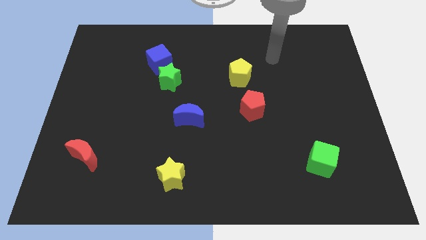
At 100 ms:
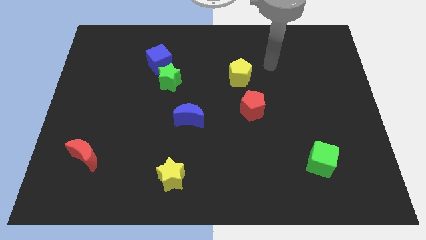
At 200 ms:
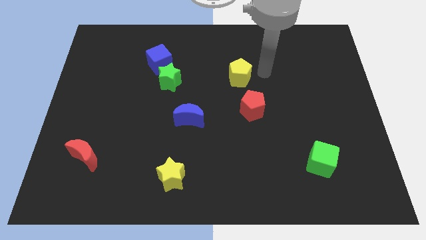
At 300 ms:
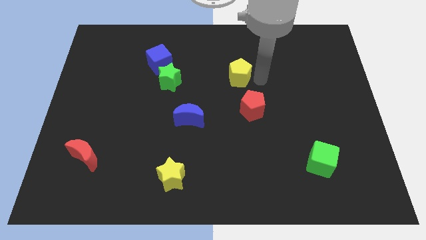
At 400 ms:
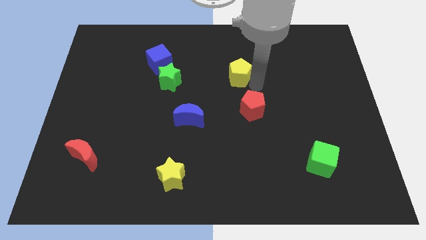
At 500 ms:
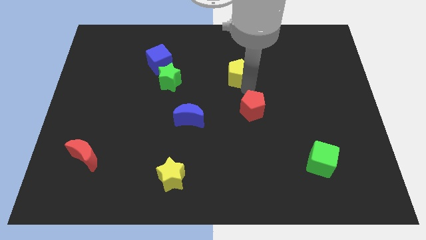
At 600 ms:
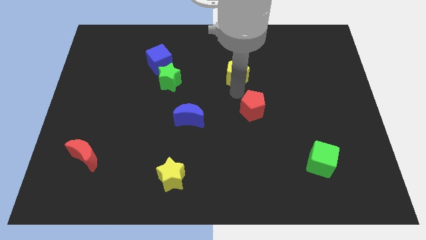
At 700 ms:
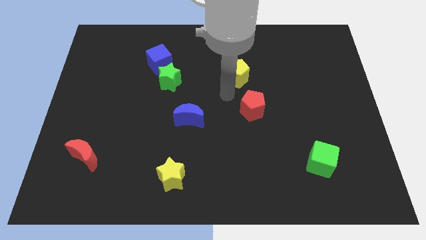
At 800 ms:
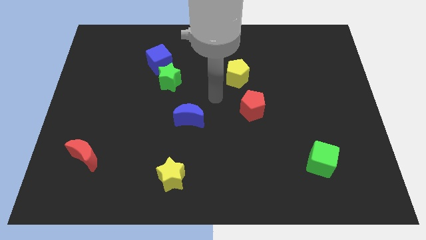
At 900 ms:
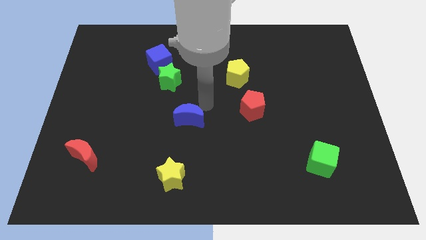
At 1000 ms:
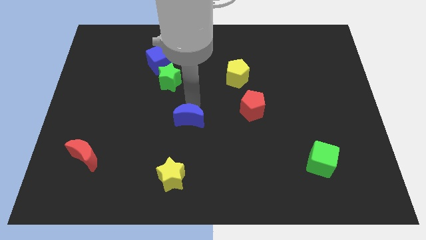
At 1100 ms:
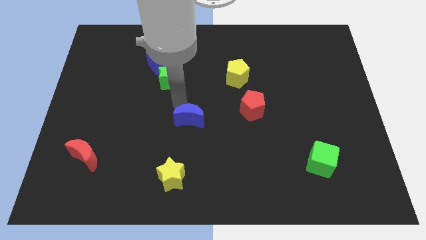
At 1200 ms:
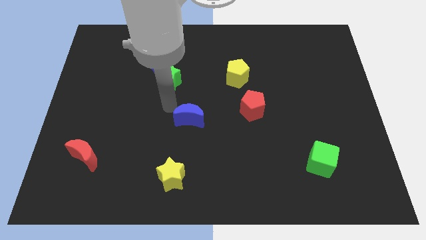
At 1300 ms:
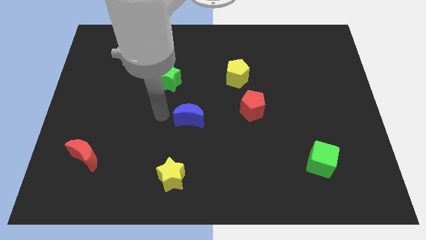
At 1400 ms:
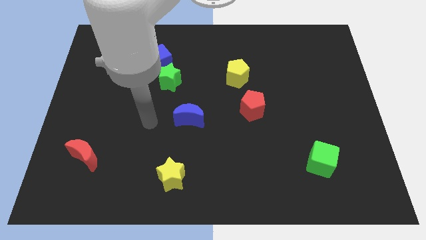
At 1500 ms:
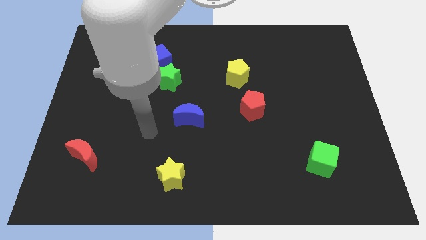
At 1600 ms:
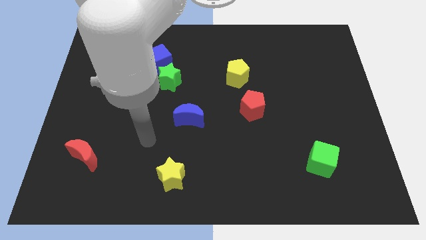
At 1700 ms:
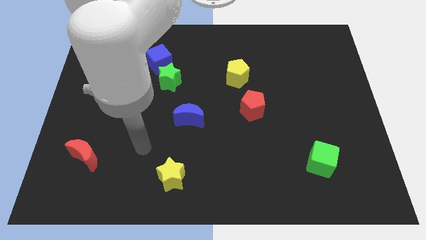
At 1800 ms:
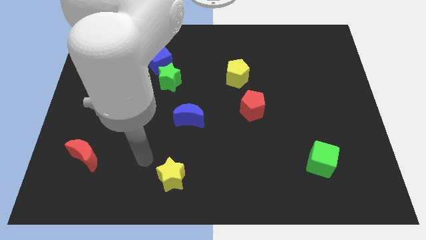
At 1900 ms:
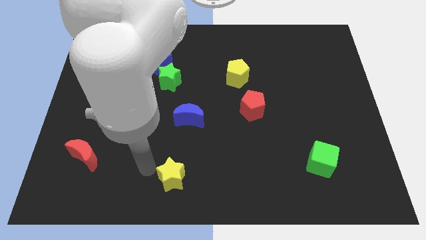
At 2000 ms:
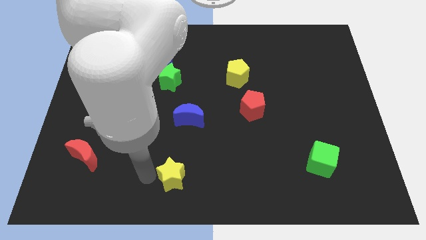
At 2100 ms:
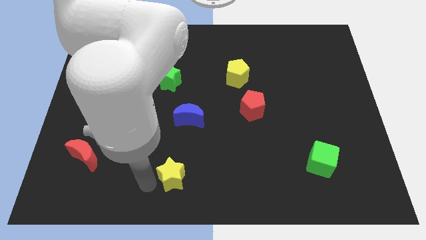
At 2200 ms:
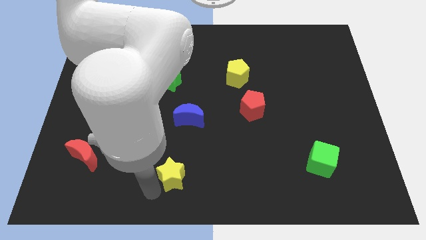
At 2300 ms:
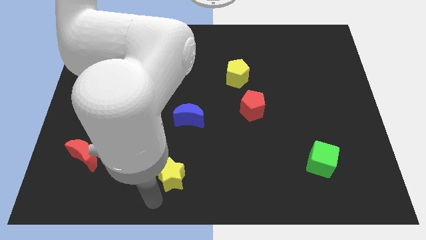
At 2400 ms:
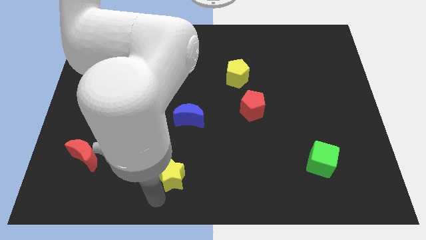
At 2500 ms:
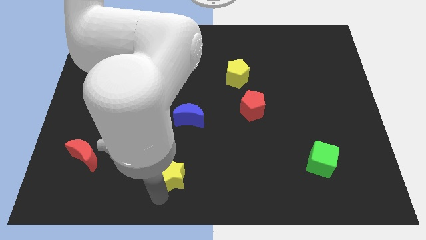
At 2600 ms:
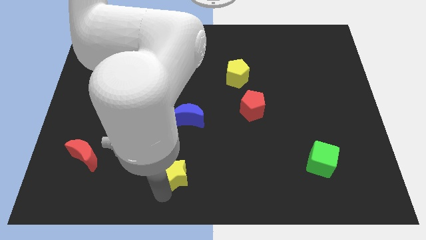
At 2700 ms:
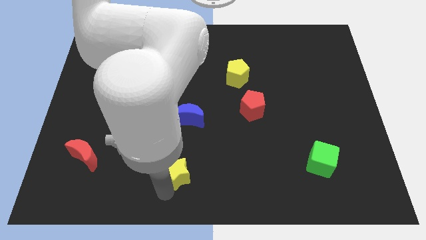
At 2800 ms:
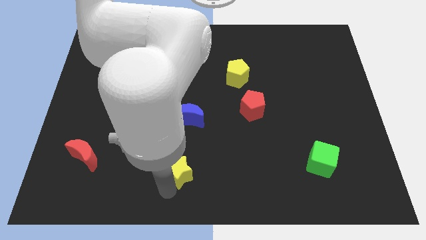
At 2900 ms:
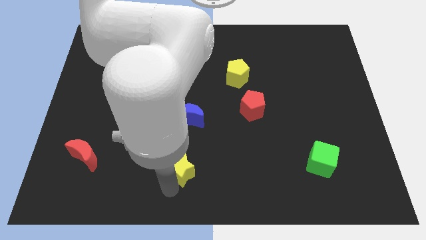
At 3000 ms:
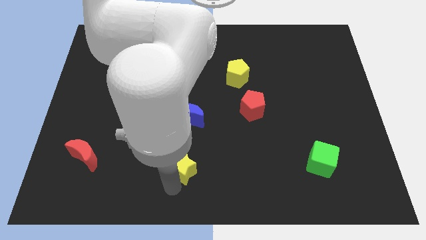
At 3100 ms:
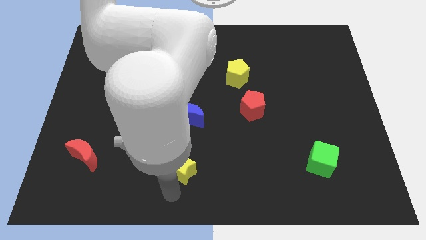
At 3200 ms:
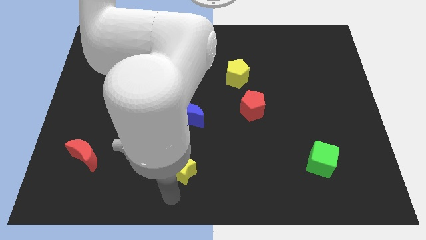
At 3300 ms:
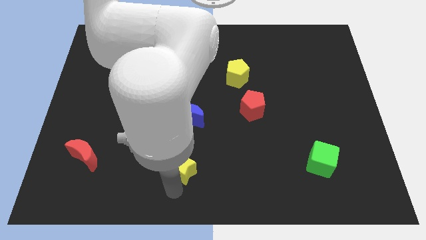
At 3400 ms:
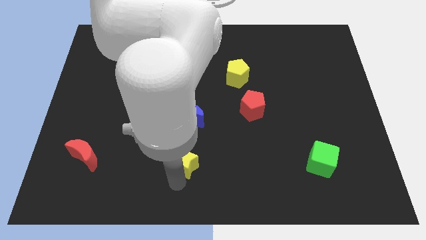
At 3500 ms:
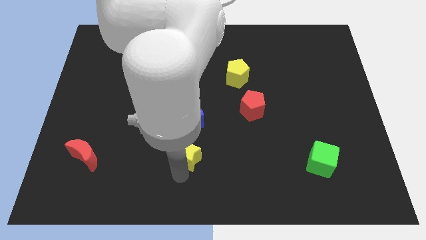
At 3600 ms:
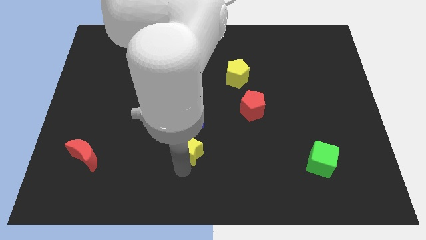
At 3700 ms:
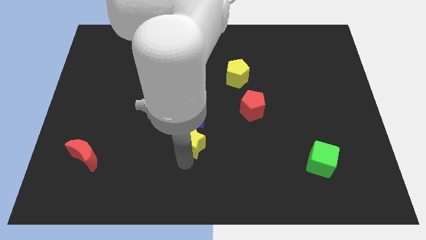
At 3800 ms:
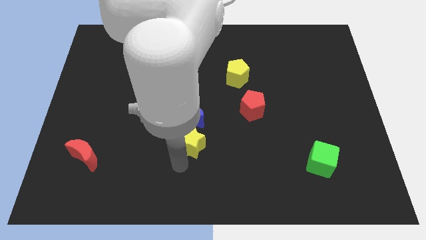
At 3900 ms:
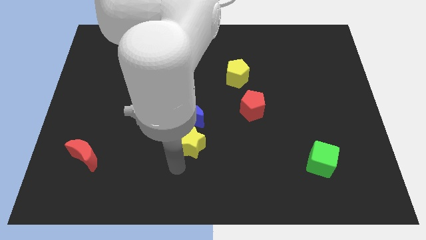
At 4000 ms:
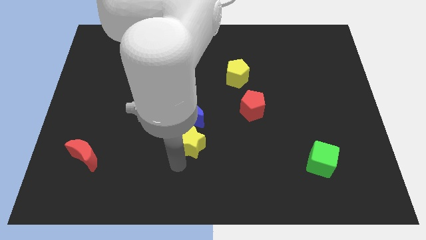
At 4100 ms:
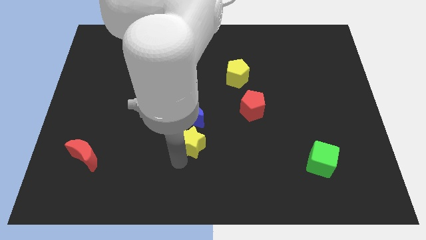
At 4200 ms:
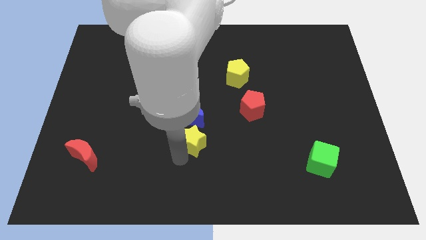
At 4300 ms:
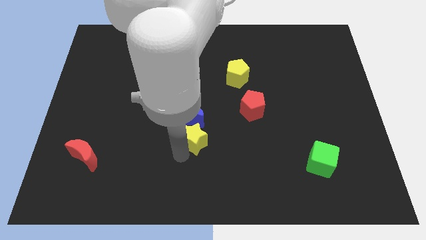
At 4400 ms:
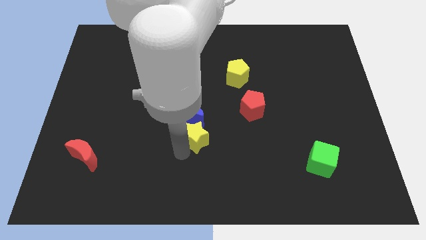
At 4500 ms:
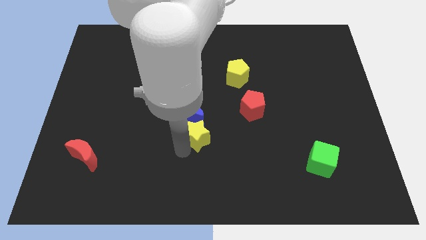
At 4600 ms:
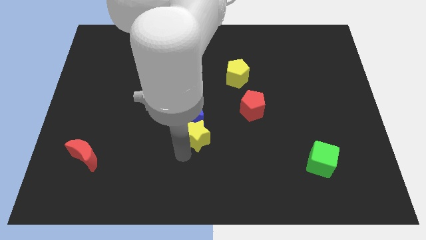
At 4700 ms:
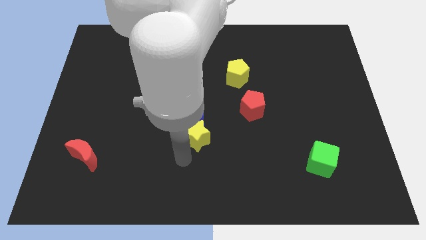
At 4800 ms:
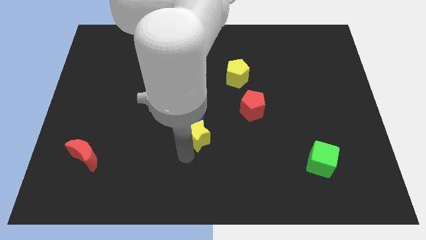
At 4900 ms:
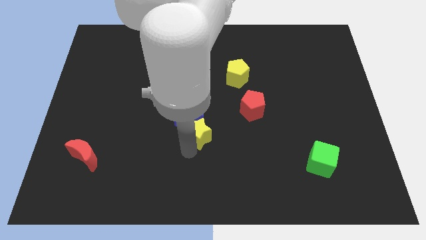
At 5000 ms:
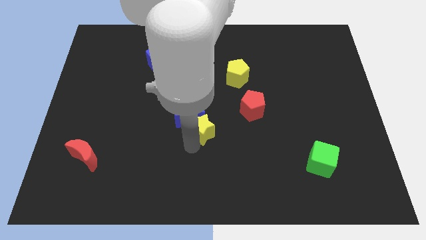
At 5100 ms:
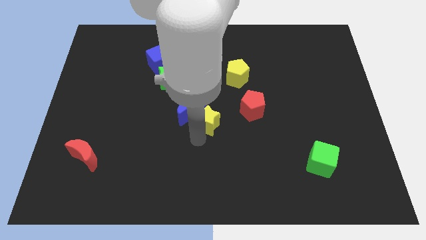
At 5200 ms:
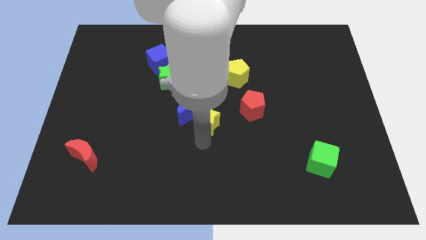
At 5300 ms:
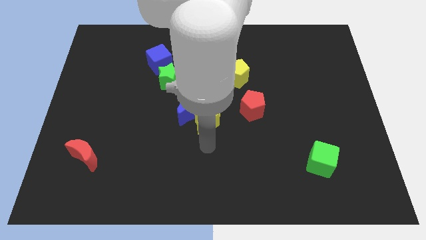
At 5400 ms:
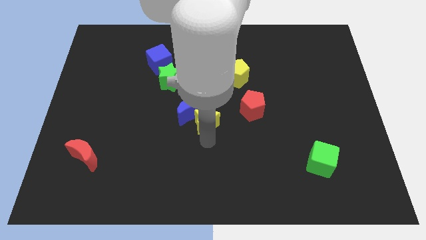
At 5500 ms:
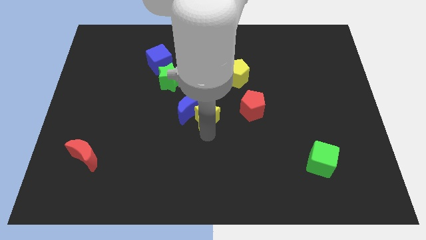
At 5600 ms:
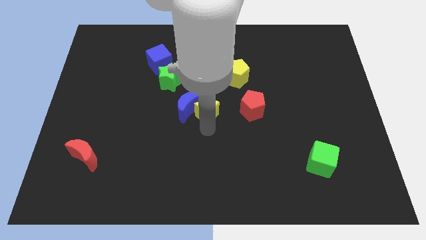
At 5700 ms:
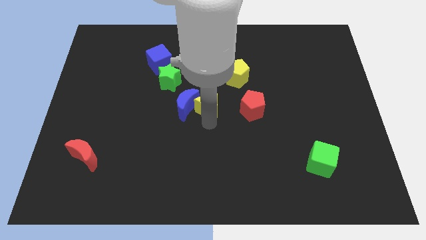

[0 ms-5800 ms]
put the yellow star diagonally down and to the right of the green star

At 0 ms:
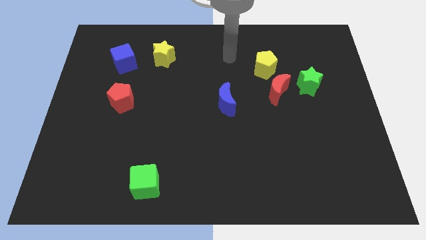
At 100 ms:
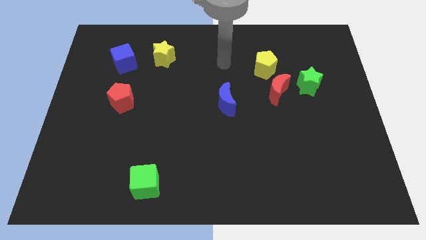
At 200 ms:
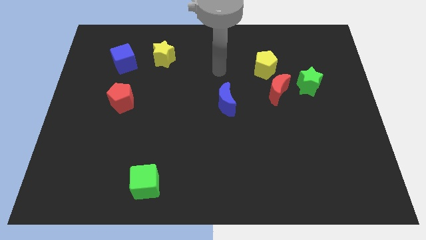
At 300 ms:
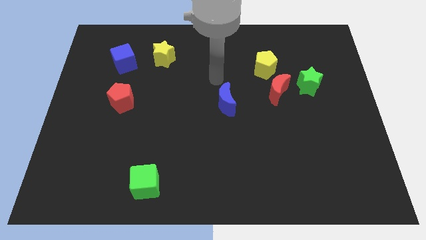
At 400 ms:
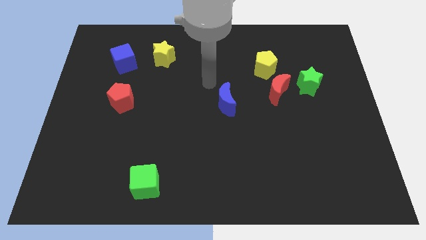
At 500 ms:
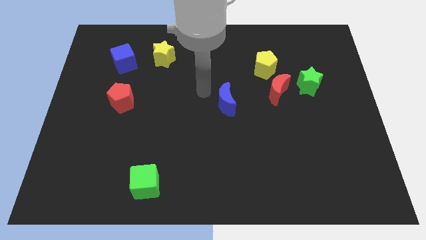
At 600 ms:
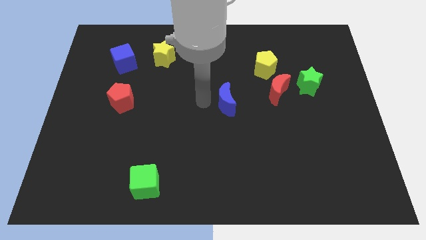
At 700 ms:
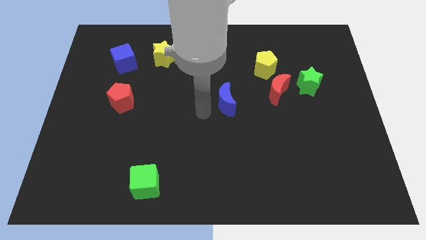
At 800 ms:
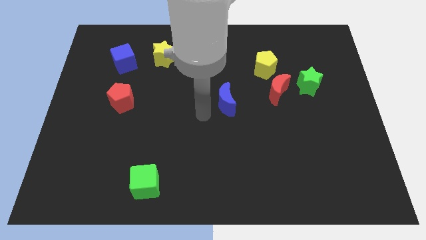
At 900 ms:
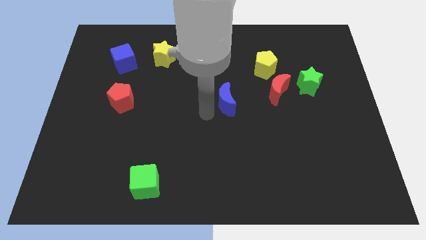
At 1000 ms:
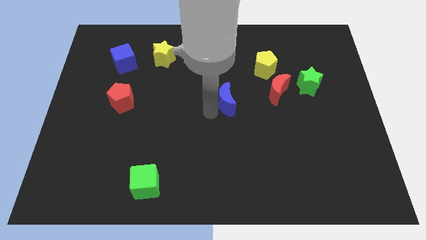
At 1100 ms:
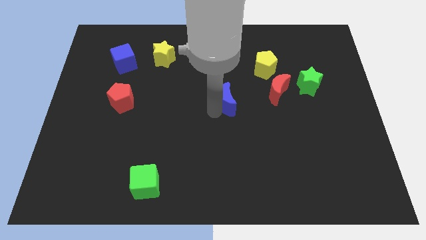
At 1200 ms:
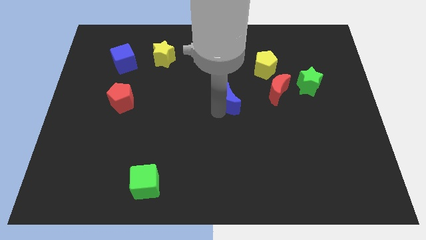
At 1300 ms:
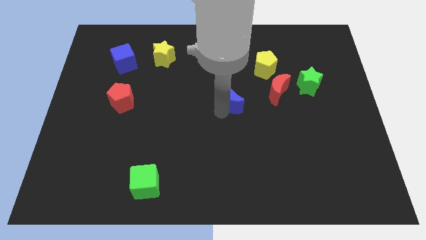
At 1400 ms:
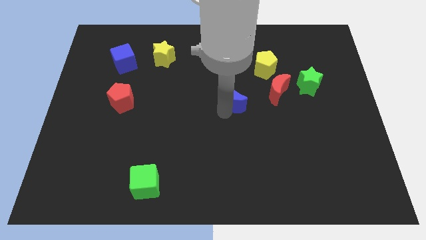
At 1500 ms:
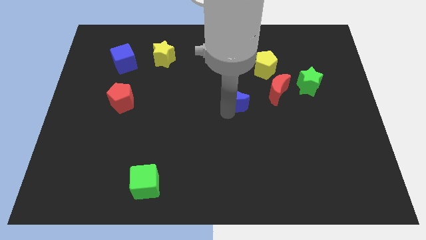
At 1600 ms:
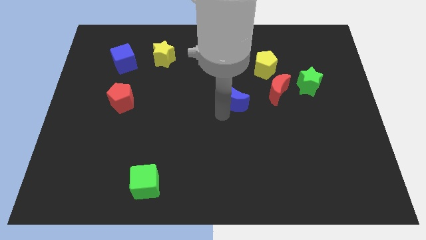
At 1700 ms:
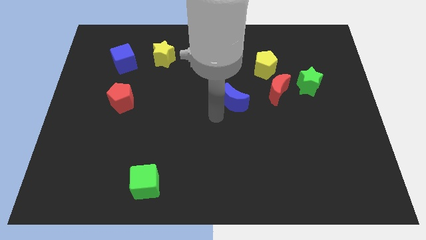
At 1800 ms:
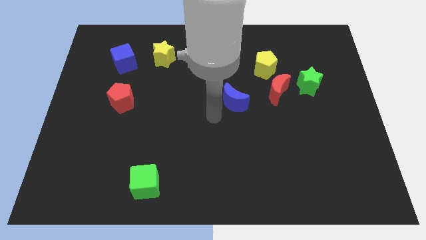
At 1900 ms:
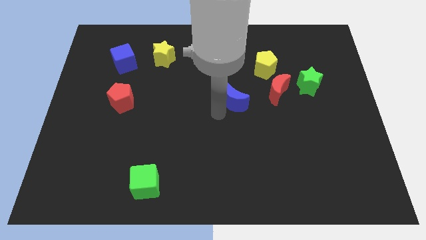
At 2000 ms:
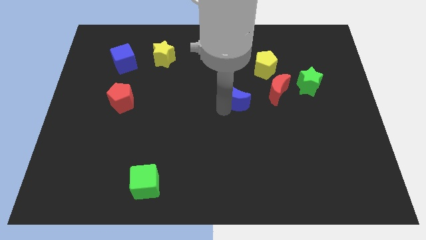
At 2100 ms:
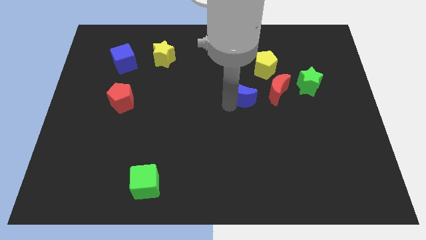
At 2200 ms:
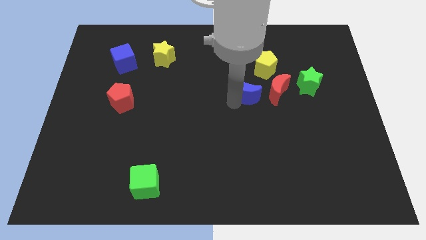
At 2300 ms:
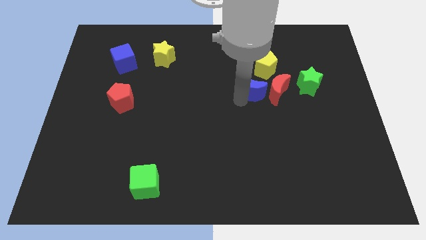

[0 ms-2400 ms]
push the blue moon to the top left side of the red moon
